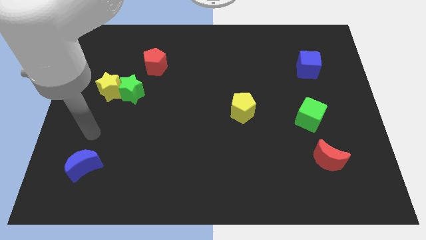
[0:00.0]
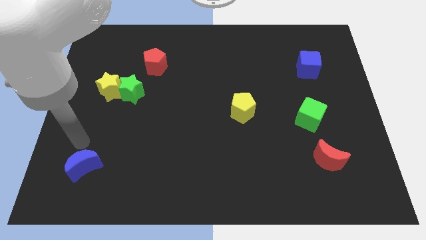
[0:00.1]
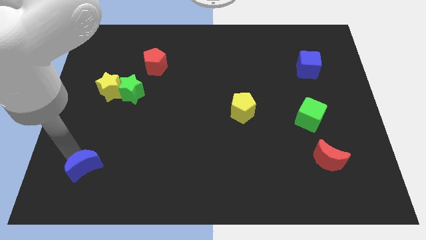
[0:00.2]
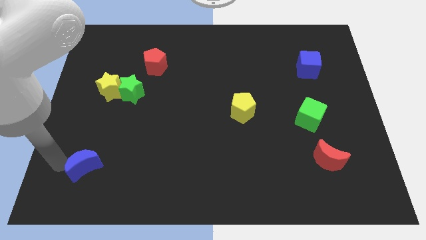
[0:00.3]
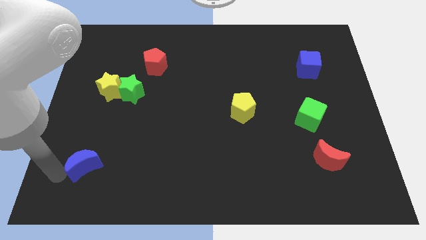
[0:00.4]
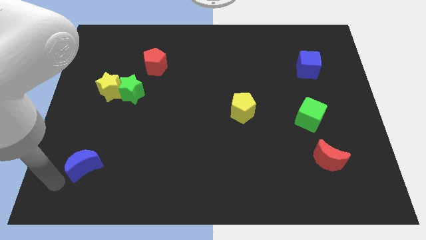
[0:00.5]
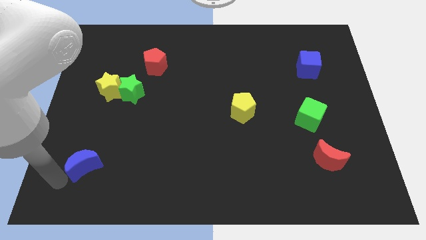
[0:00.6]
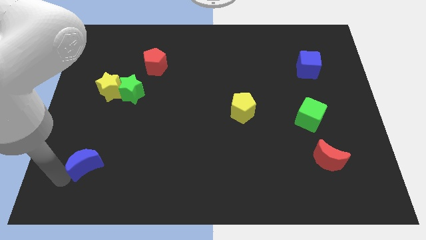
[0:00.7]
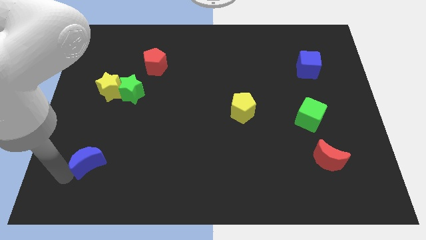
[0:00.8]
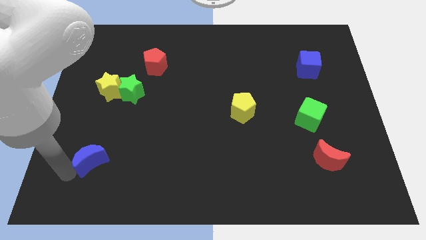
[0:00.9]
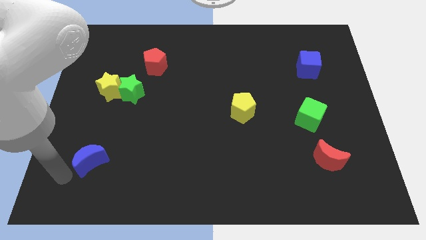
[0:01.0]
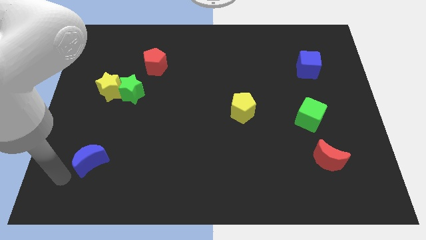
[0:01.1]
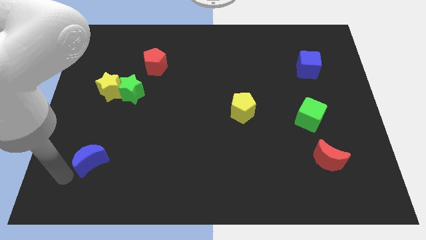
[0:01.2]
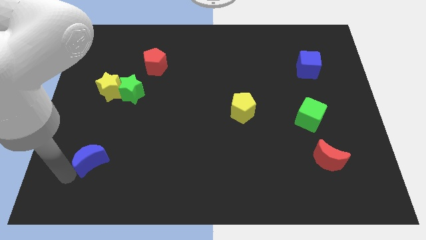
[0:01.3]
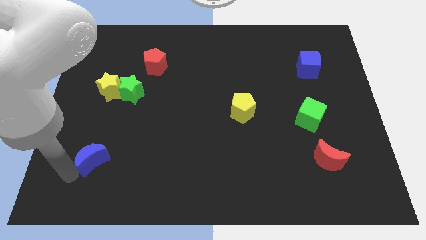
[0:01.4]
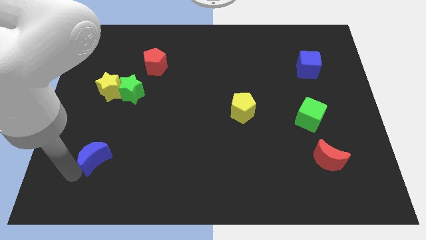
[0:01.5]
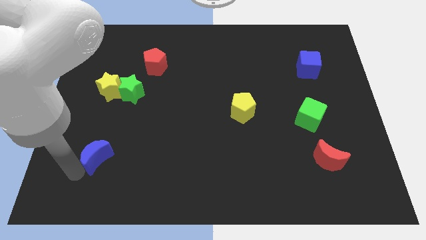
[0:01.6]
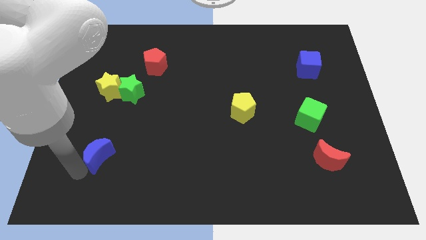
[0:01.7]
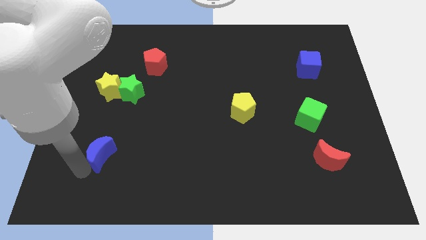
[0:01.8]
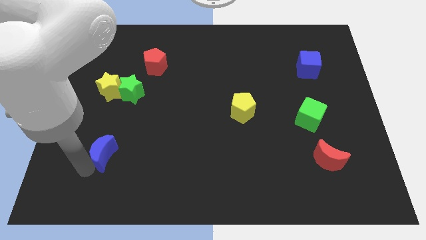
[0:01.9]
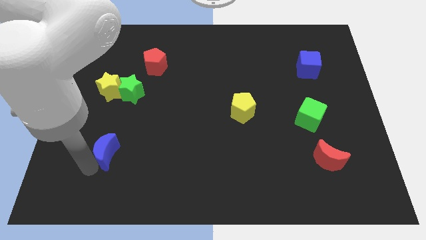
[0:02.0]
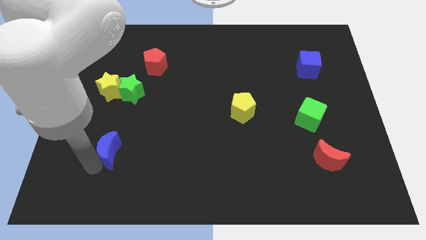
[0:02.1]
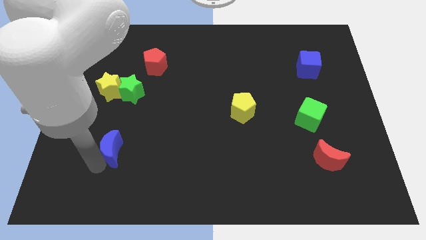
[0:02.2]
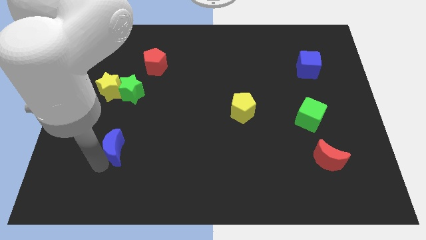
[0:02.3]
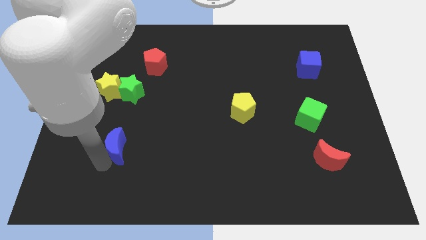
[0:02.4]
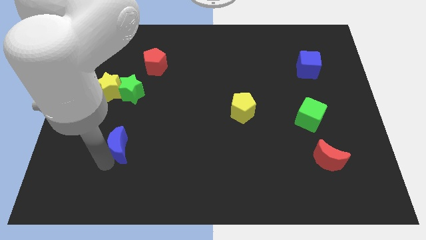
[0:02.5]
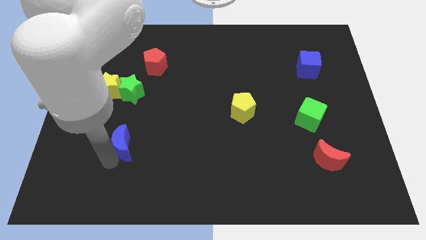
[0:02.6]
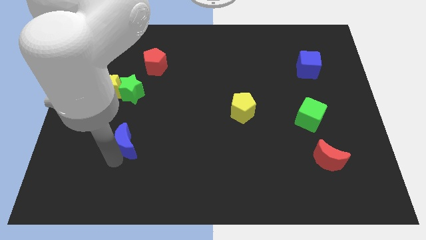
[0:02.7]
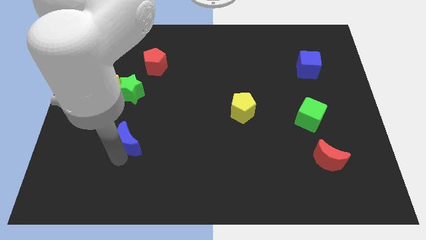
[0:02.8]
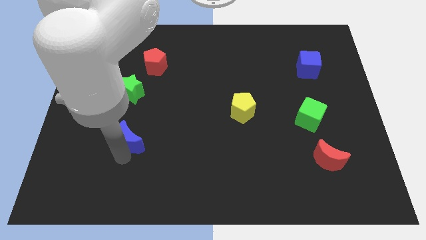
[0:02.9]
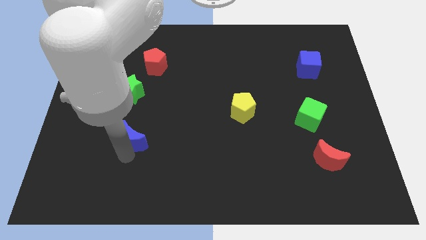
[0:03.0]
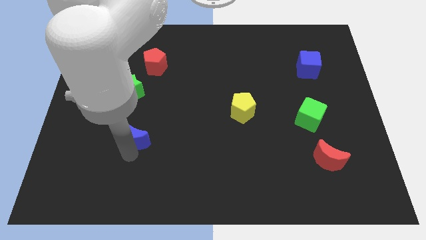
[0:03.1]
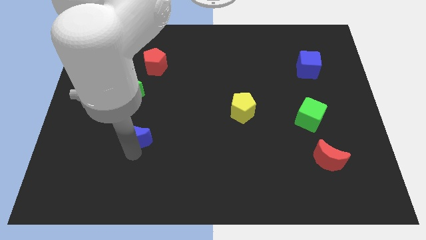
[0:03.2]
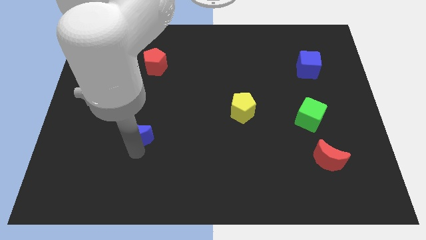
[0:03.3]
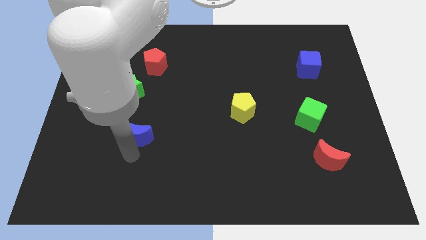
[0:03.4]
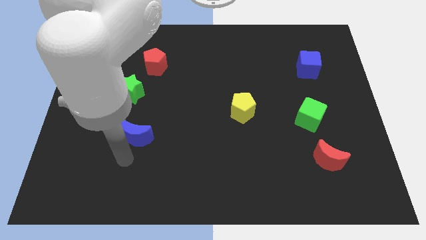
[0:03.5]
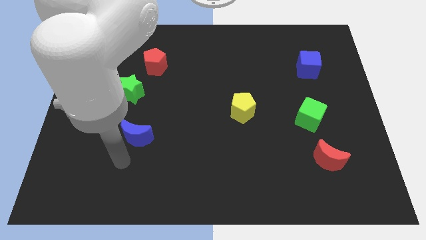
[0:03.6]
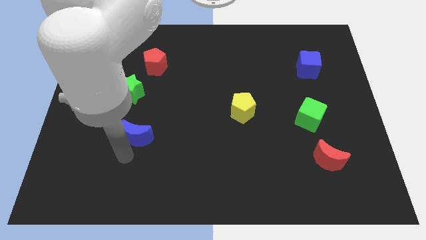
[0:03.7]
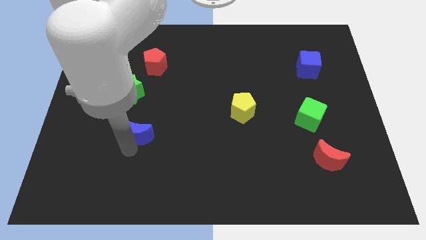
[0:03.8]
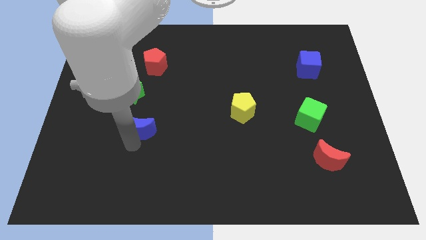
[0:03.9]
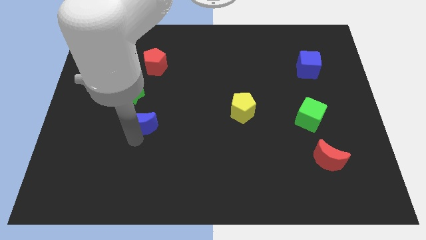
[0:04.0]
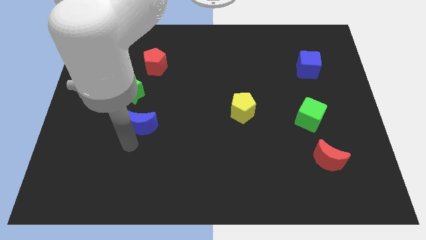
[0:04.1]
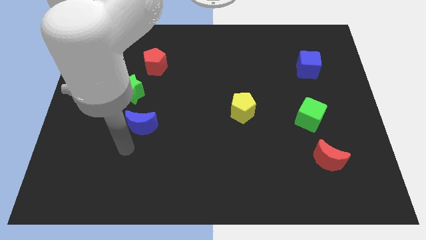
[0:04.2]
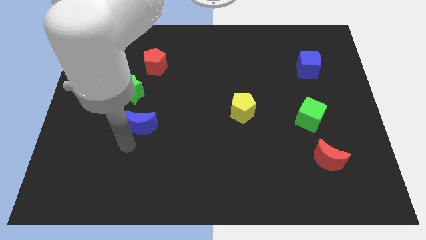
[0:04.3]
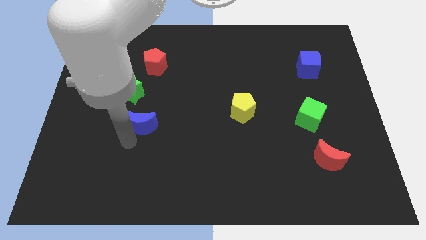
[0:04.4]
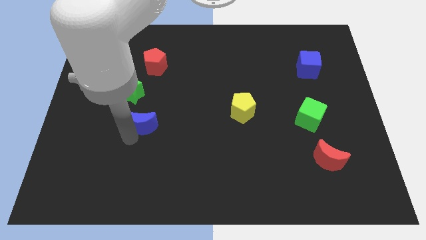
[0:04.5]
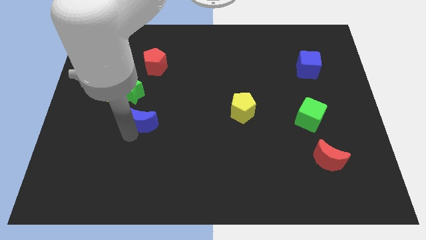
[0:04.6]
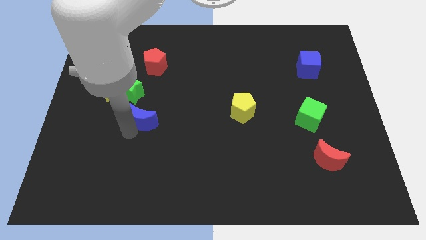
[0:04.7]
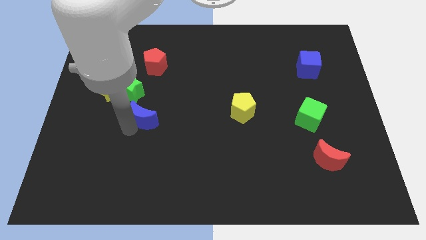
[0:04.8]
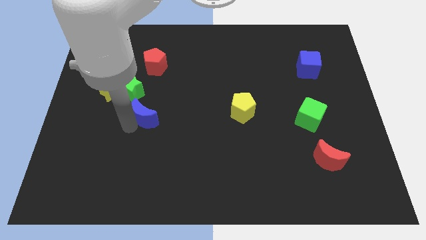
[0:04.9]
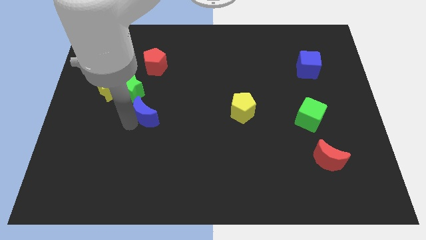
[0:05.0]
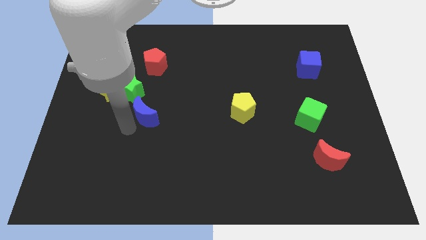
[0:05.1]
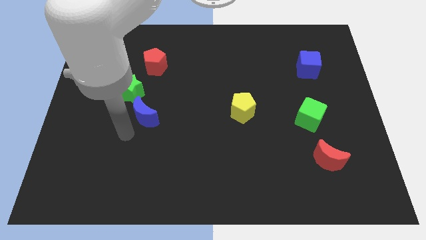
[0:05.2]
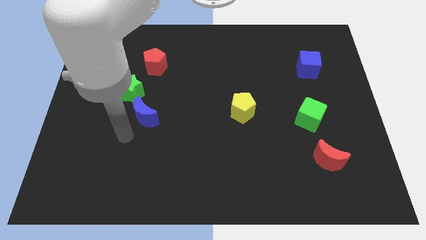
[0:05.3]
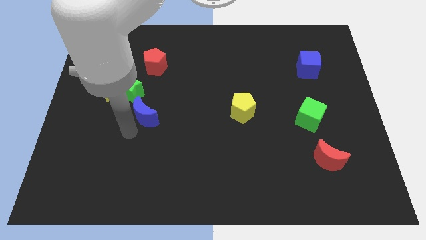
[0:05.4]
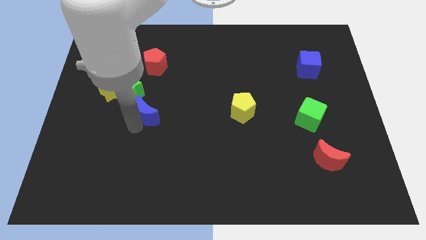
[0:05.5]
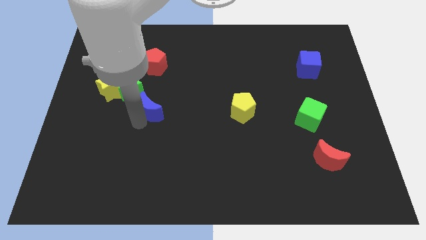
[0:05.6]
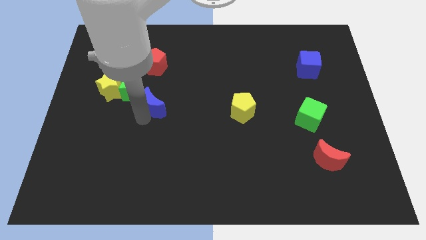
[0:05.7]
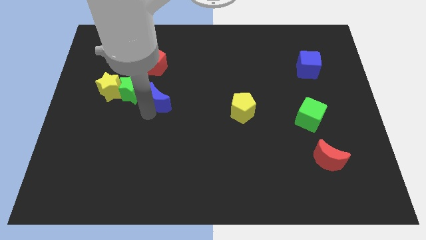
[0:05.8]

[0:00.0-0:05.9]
put the blue moon just right of the yellow star

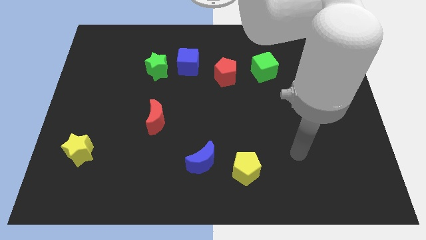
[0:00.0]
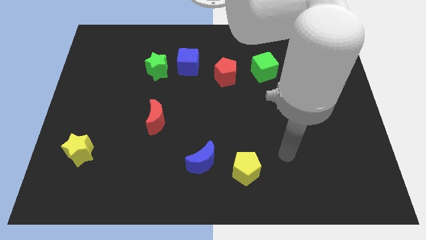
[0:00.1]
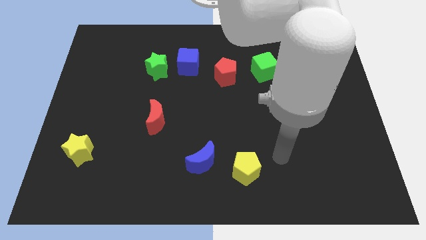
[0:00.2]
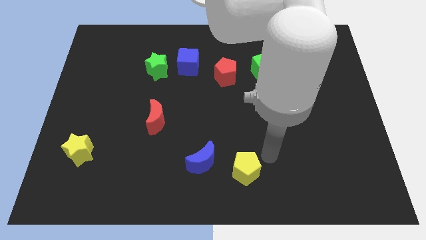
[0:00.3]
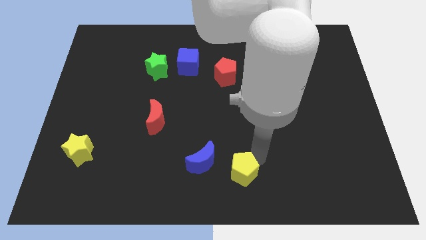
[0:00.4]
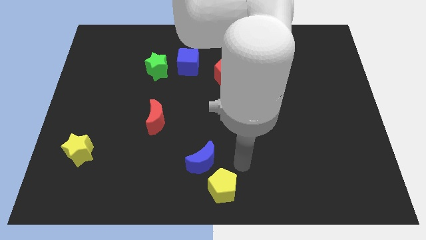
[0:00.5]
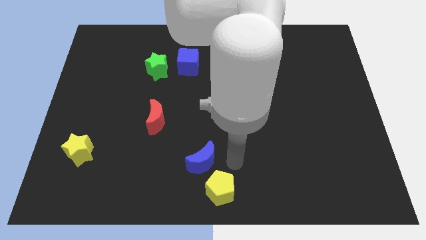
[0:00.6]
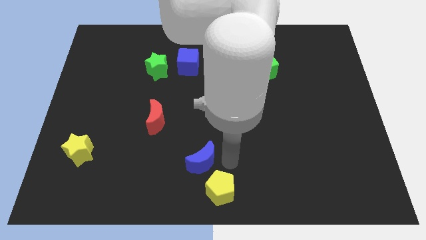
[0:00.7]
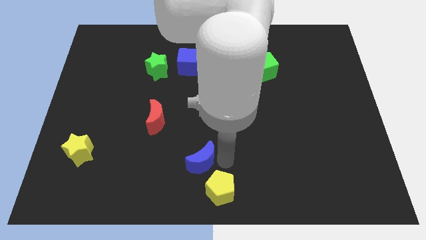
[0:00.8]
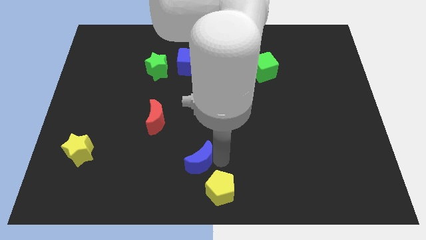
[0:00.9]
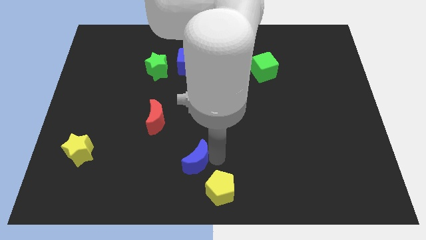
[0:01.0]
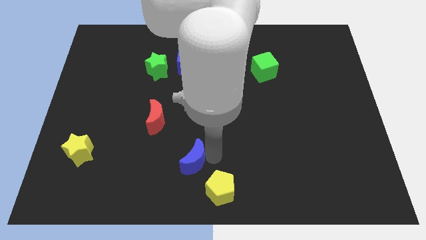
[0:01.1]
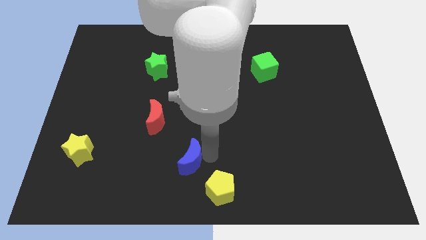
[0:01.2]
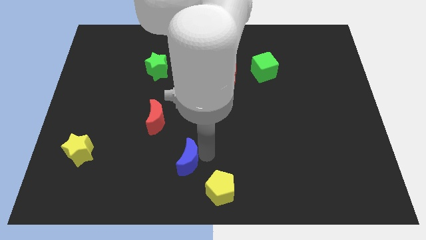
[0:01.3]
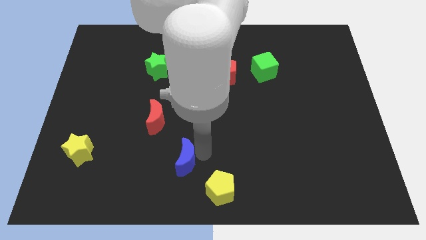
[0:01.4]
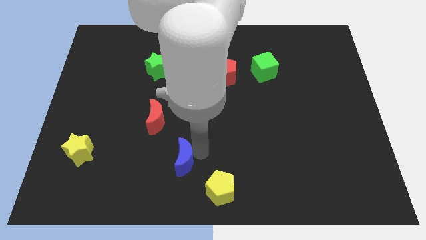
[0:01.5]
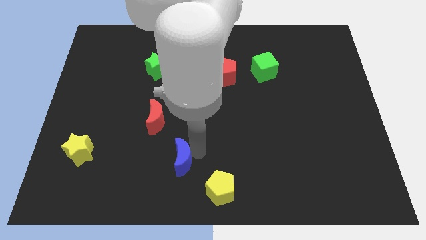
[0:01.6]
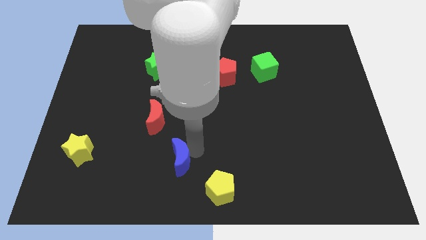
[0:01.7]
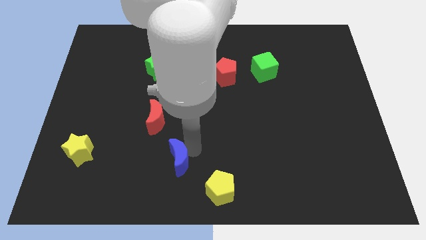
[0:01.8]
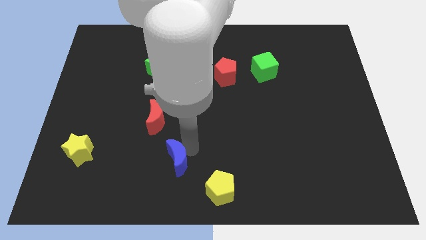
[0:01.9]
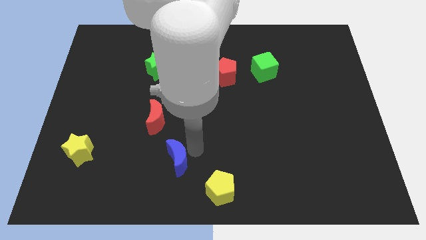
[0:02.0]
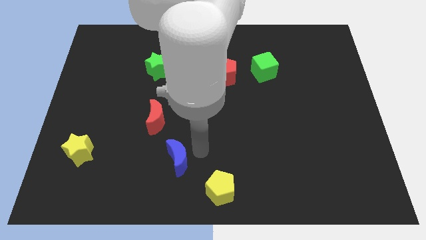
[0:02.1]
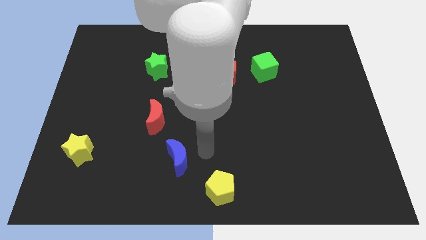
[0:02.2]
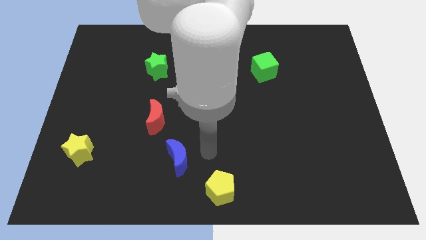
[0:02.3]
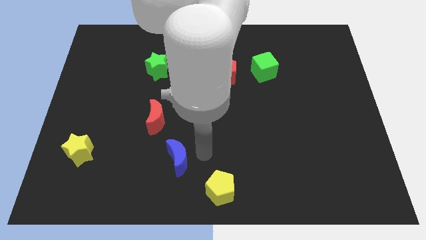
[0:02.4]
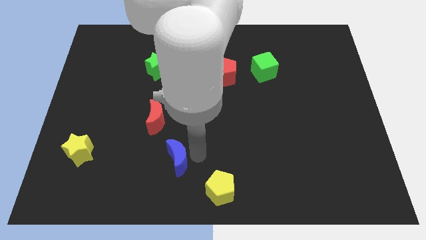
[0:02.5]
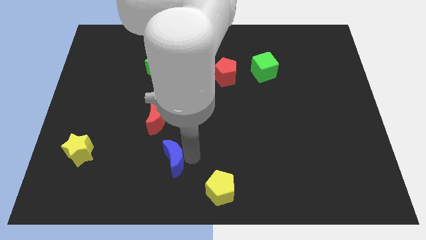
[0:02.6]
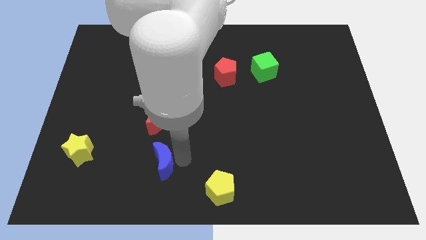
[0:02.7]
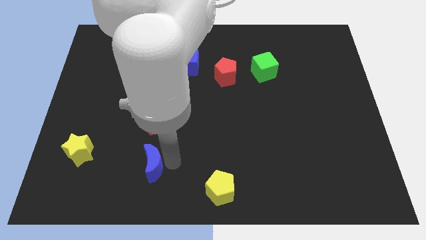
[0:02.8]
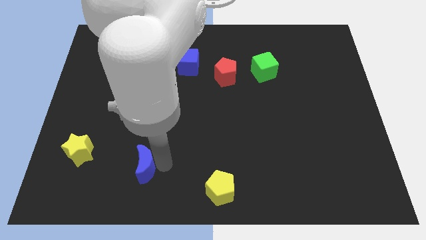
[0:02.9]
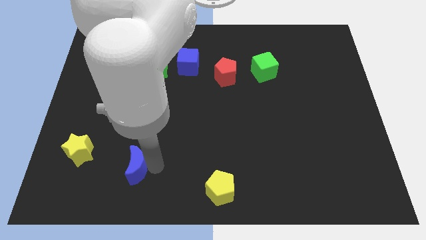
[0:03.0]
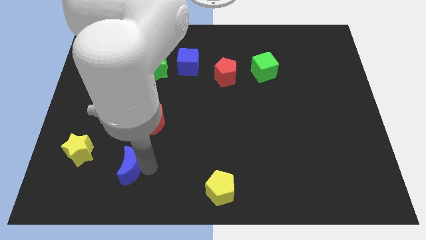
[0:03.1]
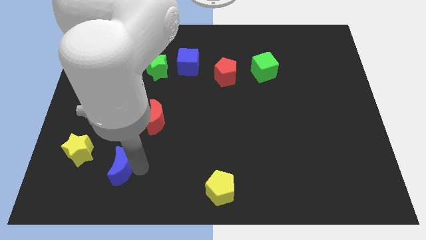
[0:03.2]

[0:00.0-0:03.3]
push the blue moon diagonally down and to the right of the yellow star
